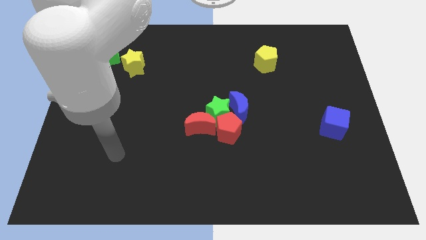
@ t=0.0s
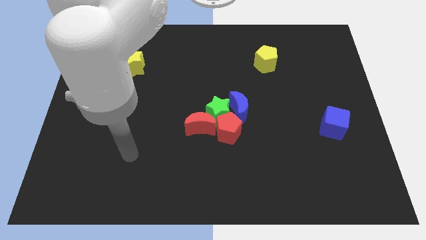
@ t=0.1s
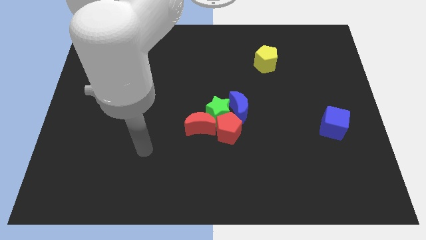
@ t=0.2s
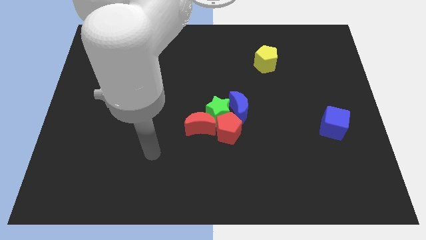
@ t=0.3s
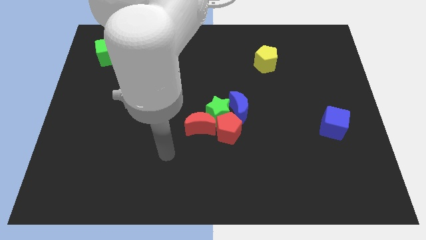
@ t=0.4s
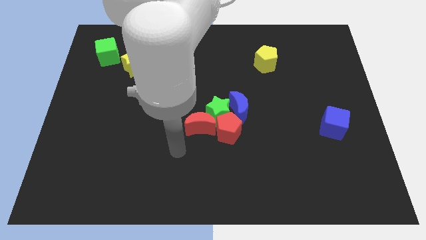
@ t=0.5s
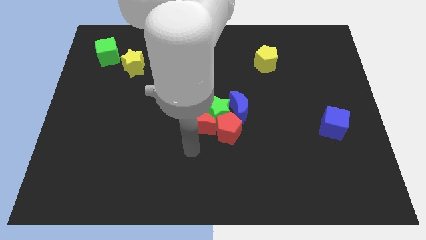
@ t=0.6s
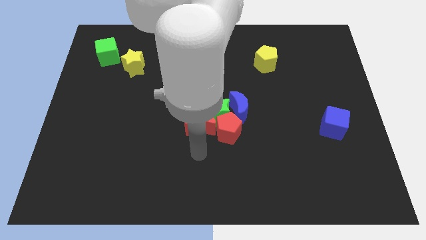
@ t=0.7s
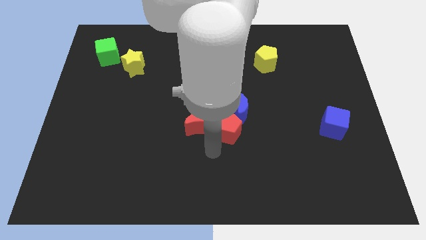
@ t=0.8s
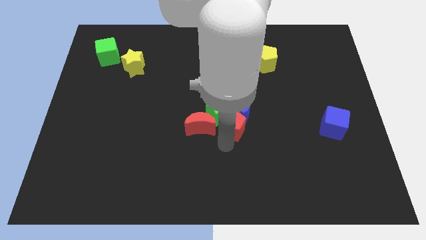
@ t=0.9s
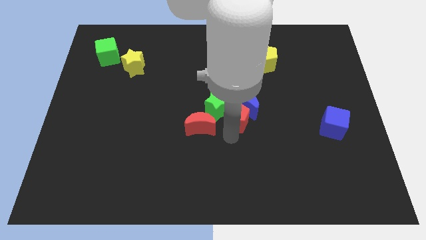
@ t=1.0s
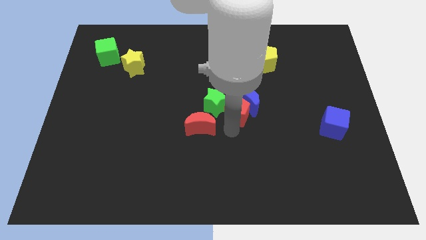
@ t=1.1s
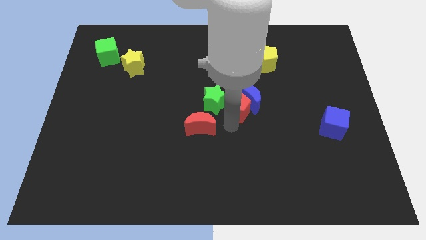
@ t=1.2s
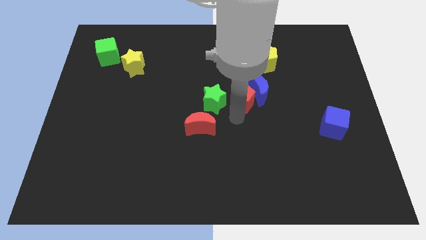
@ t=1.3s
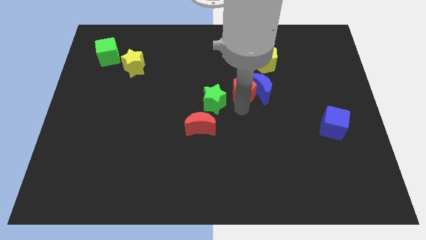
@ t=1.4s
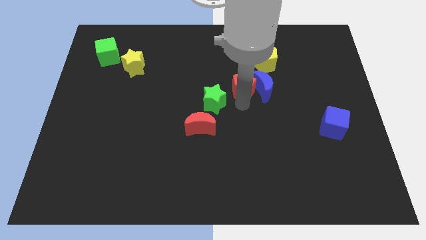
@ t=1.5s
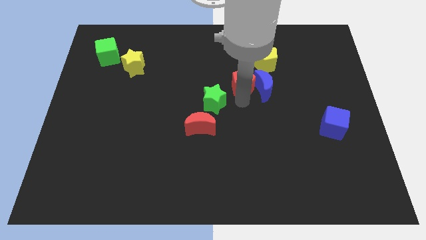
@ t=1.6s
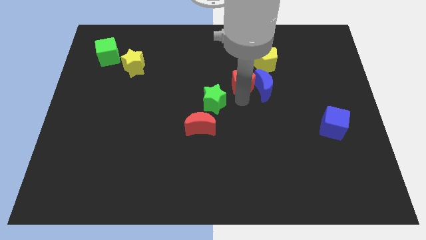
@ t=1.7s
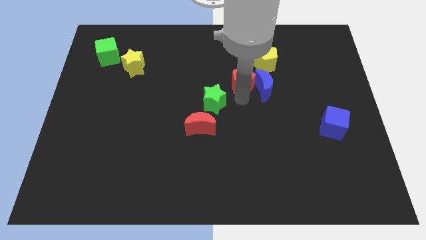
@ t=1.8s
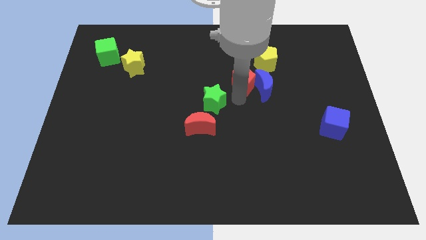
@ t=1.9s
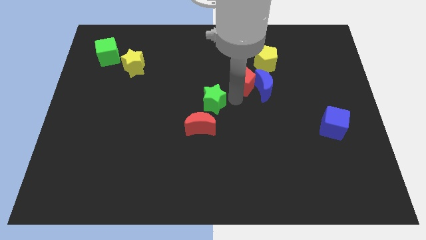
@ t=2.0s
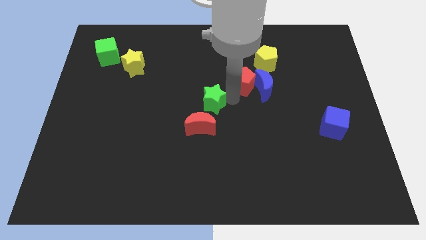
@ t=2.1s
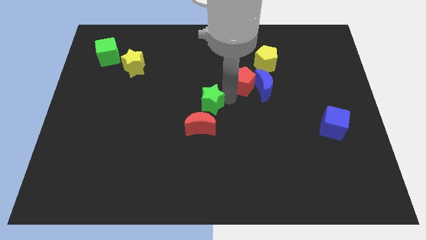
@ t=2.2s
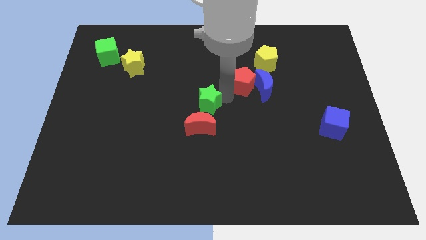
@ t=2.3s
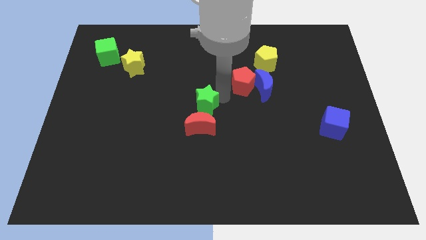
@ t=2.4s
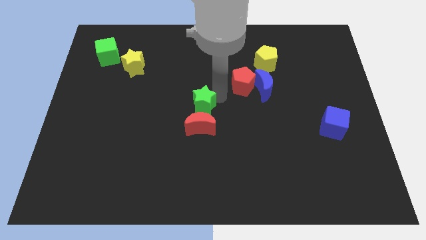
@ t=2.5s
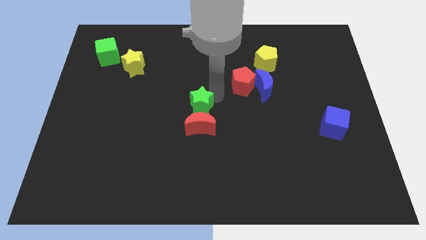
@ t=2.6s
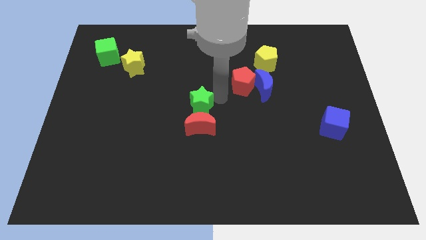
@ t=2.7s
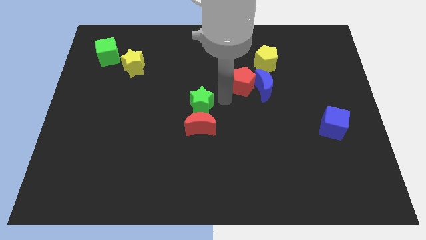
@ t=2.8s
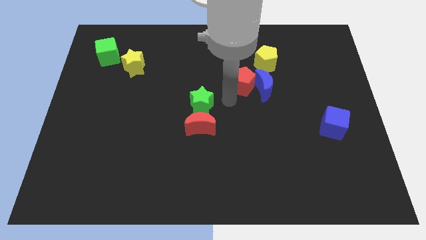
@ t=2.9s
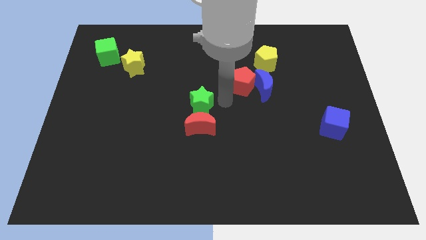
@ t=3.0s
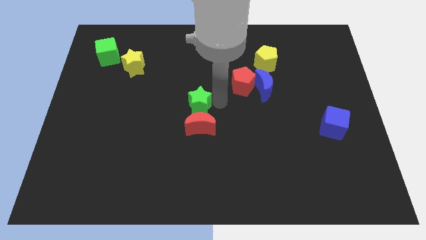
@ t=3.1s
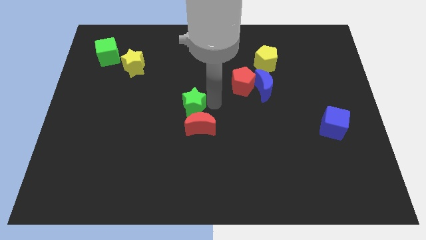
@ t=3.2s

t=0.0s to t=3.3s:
separate the green star from the red pentagon, blue moon, and red moon

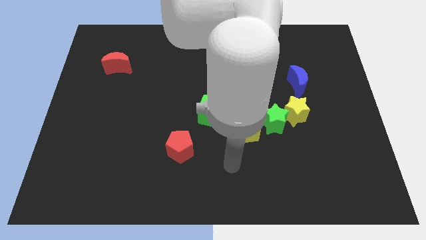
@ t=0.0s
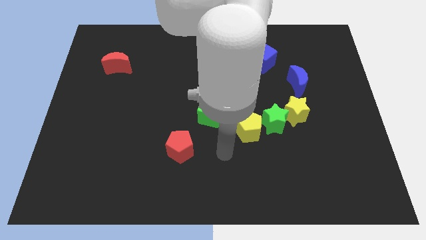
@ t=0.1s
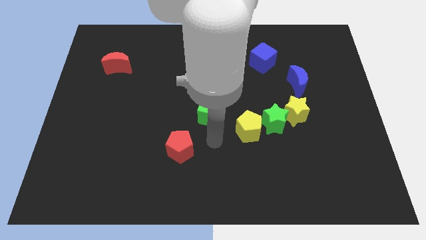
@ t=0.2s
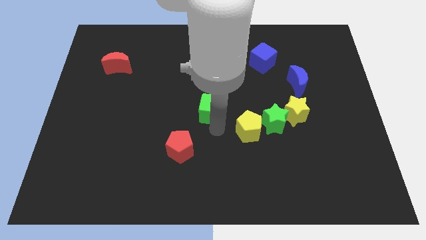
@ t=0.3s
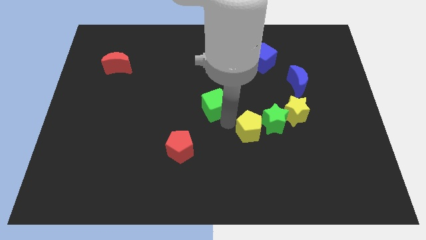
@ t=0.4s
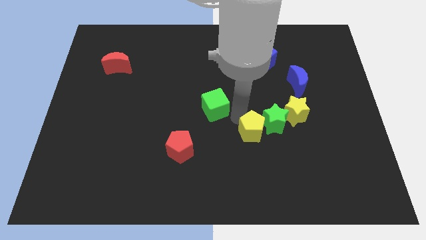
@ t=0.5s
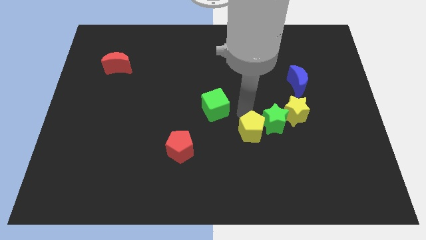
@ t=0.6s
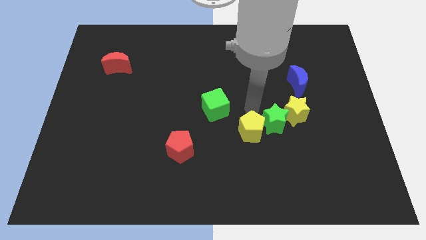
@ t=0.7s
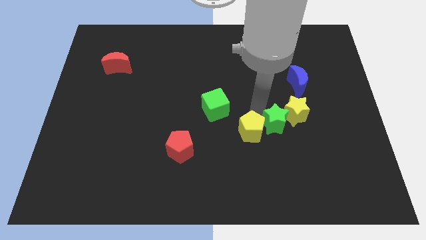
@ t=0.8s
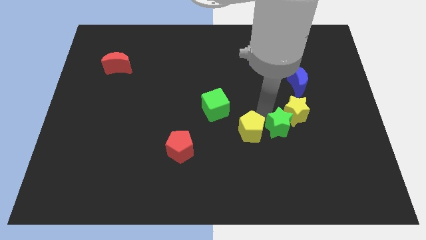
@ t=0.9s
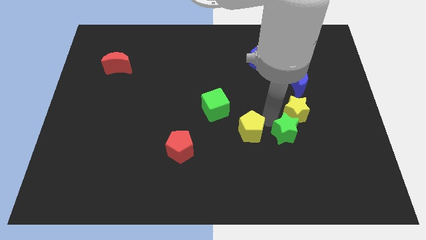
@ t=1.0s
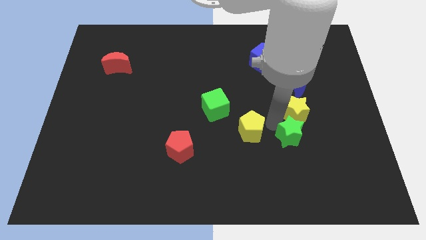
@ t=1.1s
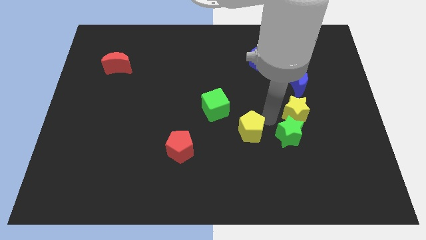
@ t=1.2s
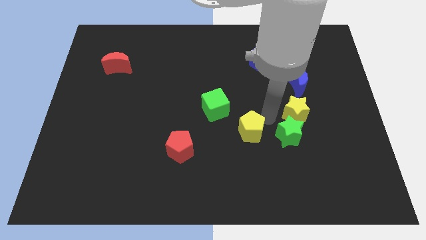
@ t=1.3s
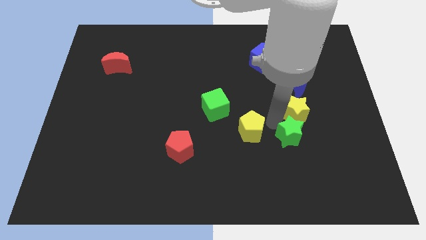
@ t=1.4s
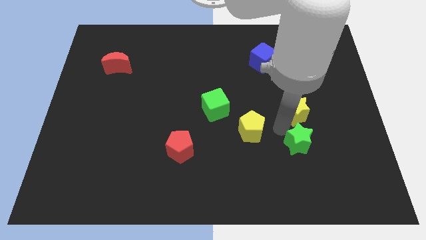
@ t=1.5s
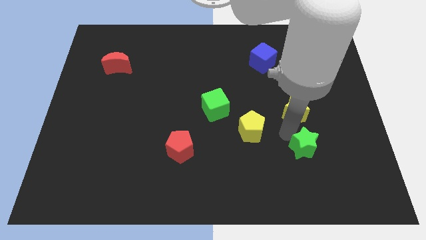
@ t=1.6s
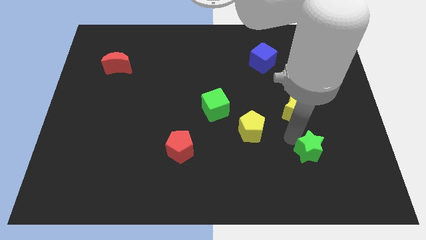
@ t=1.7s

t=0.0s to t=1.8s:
move the green star away from the yellow star and yellow pentagon

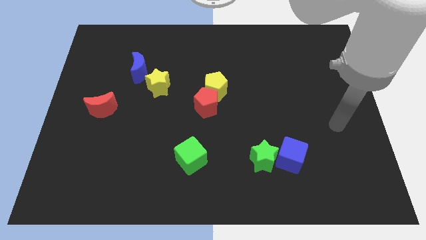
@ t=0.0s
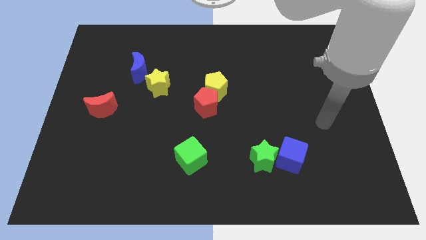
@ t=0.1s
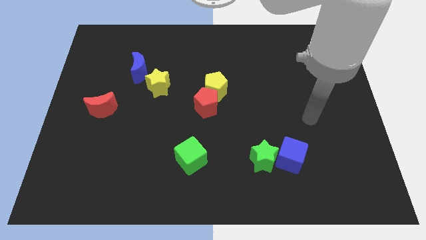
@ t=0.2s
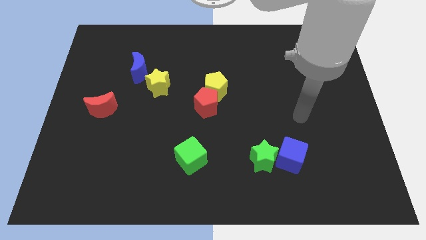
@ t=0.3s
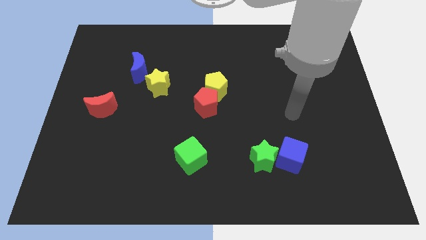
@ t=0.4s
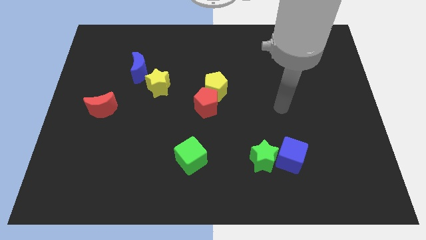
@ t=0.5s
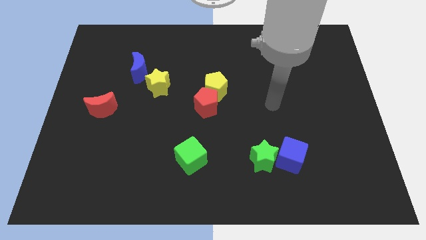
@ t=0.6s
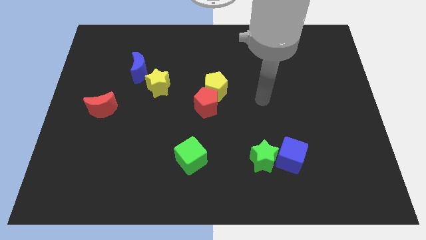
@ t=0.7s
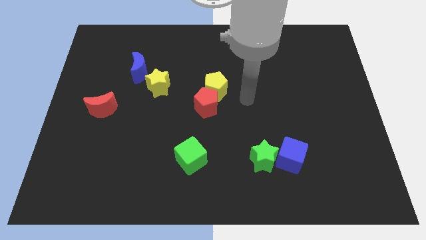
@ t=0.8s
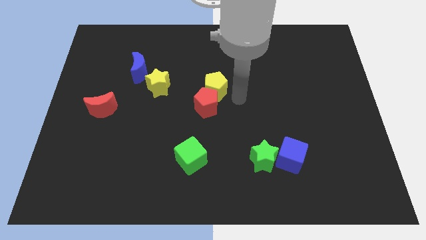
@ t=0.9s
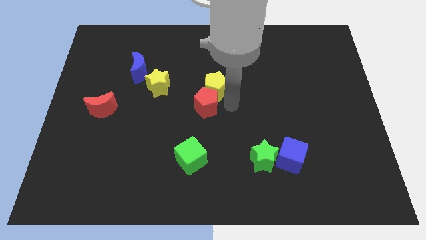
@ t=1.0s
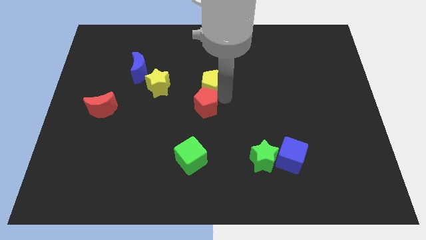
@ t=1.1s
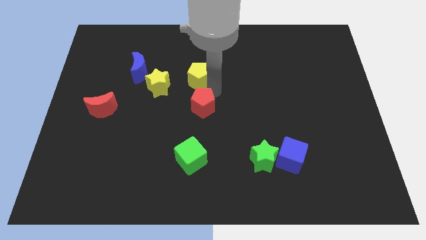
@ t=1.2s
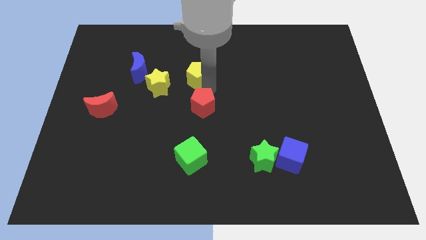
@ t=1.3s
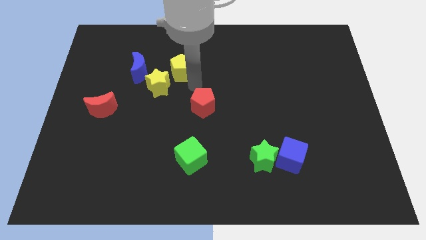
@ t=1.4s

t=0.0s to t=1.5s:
pull the red pentagon apart from the yellow pentagon

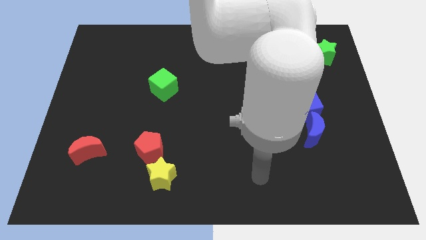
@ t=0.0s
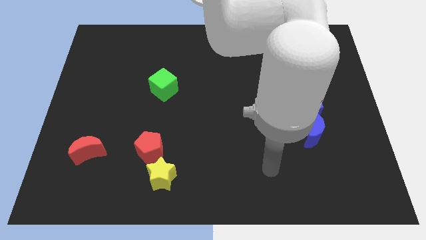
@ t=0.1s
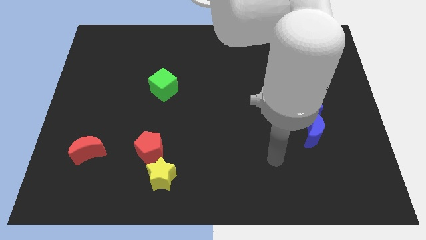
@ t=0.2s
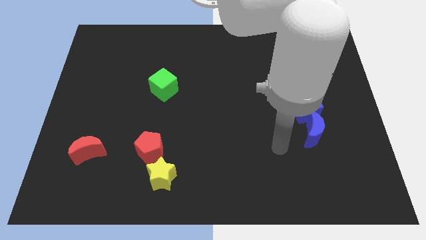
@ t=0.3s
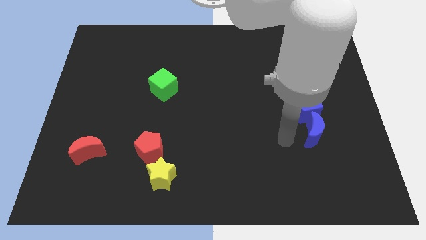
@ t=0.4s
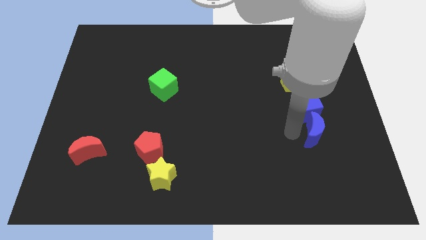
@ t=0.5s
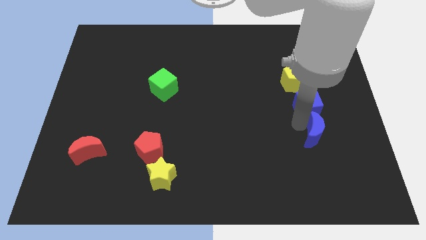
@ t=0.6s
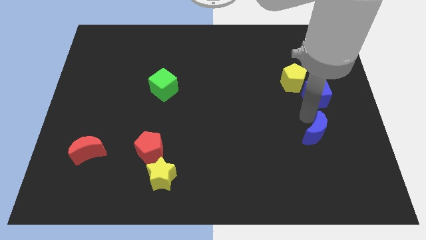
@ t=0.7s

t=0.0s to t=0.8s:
pull the blue moon apart from the blue cube

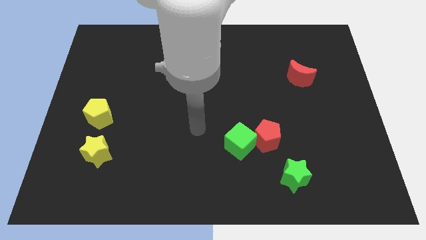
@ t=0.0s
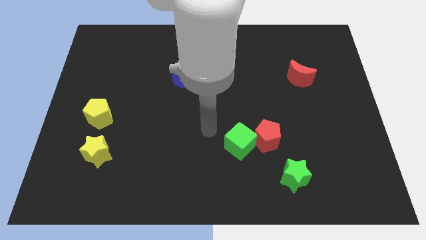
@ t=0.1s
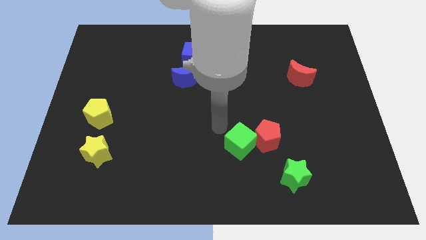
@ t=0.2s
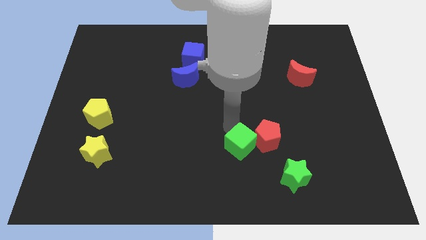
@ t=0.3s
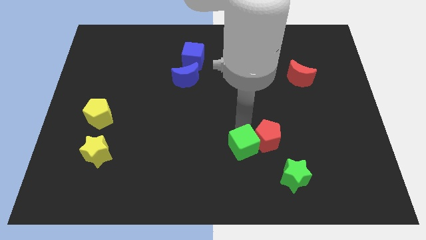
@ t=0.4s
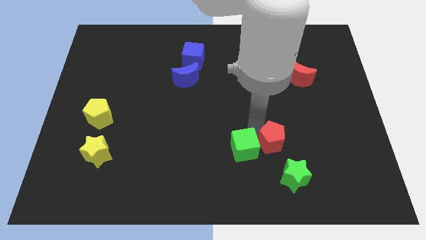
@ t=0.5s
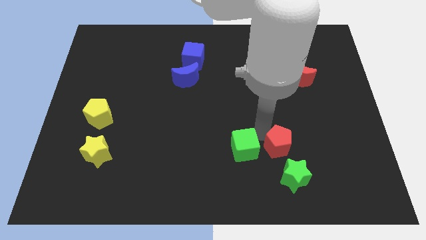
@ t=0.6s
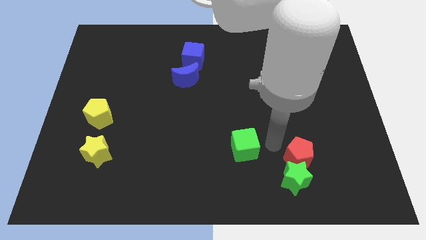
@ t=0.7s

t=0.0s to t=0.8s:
move the green cube away from the red pentagon

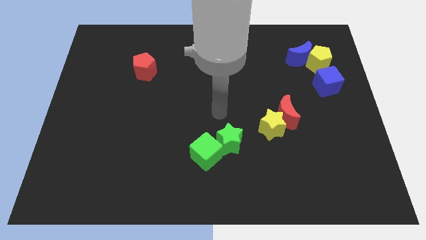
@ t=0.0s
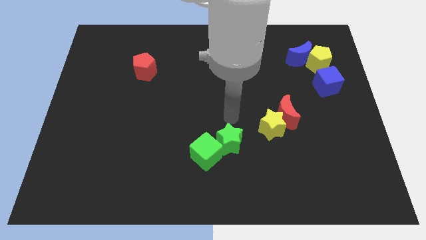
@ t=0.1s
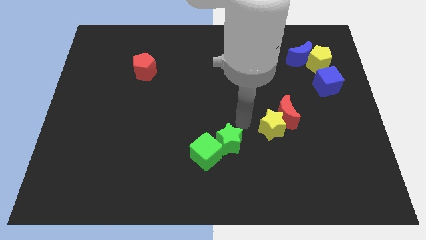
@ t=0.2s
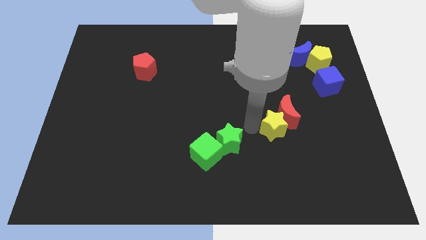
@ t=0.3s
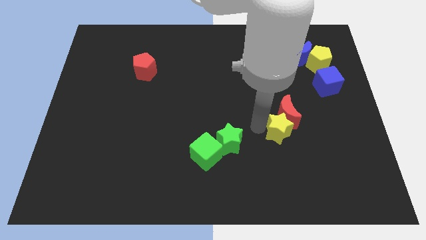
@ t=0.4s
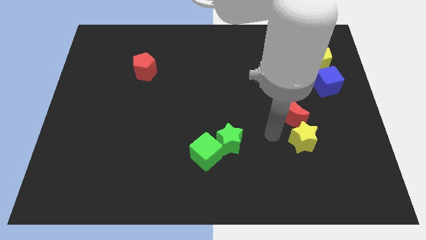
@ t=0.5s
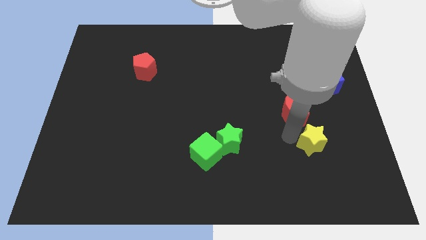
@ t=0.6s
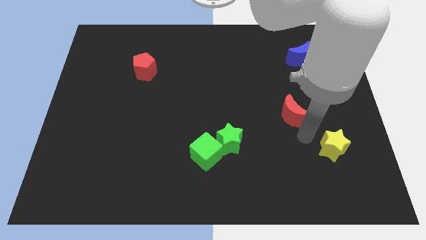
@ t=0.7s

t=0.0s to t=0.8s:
move the red moon away from the yellow star

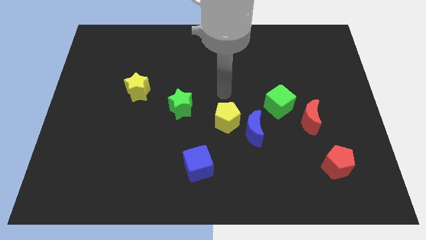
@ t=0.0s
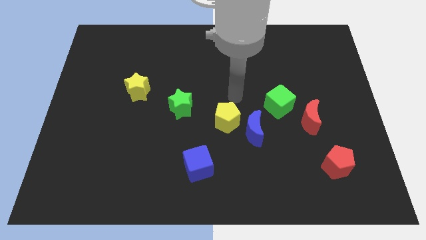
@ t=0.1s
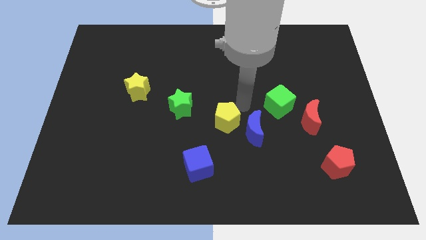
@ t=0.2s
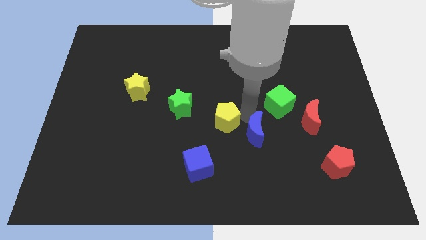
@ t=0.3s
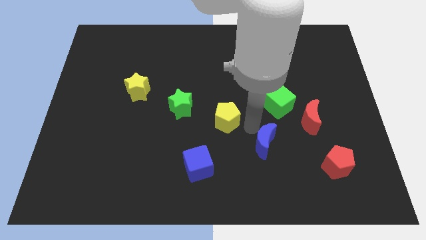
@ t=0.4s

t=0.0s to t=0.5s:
pull the yellow pentagon apart from the blue moon
